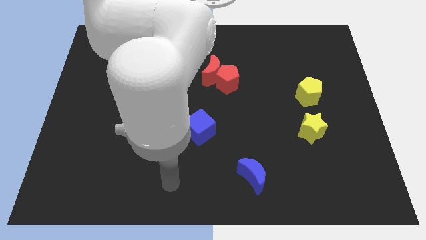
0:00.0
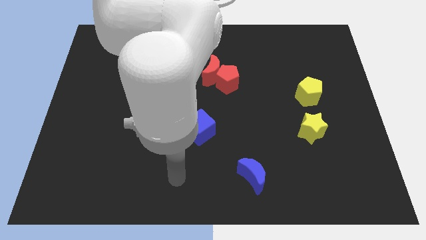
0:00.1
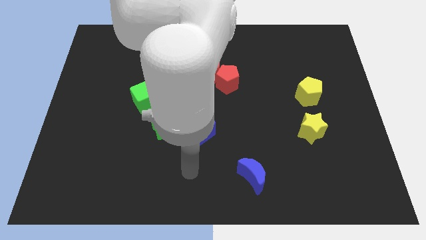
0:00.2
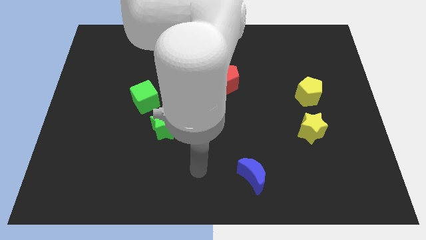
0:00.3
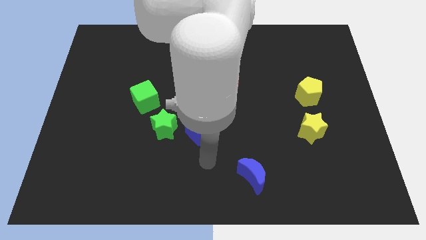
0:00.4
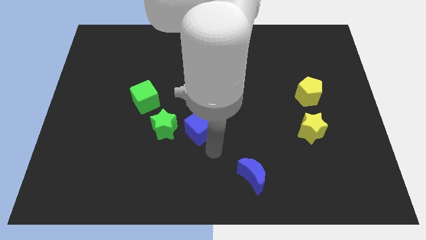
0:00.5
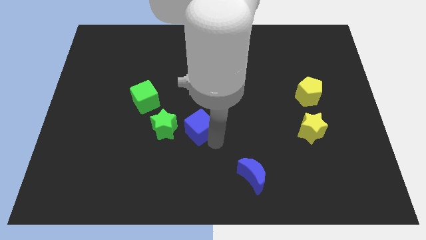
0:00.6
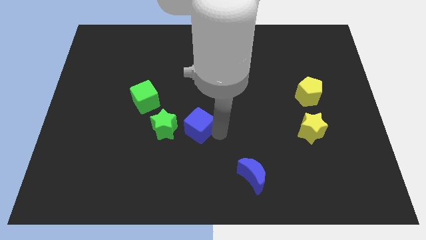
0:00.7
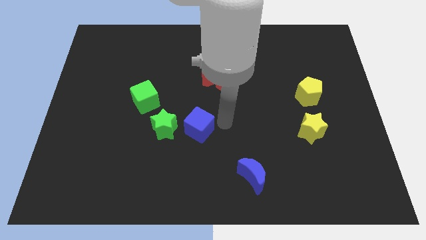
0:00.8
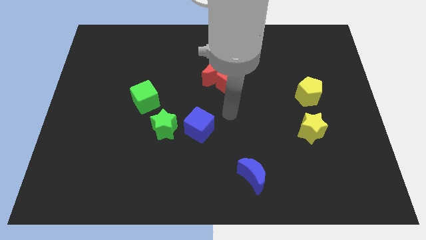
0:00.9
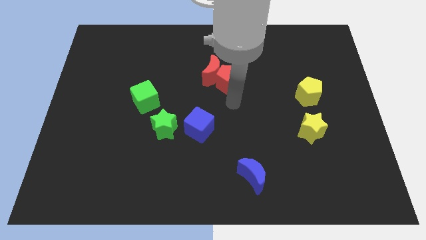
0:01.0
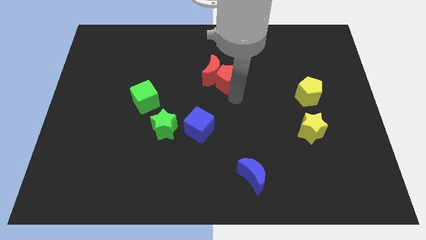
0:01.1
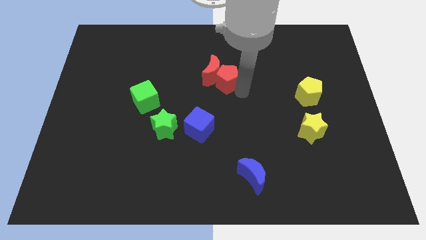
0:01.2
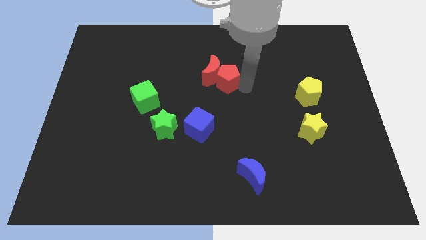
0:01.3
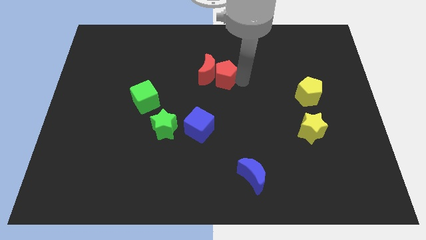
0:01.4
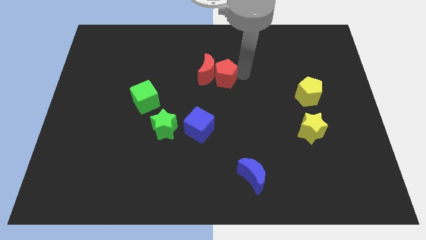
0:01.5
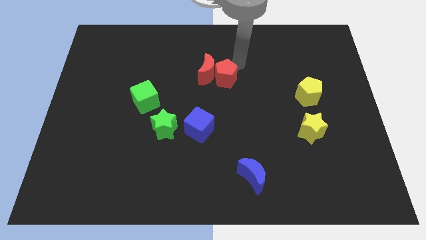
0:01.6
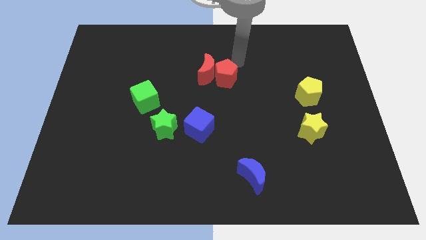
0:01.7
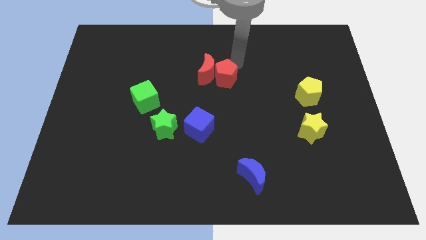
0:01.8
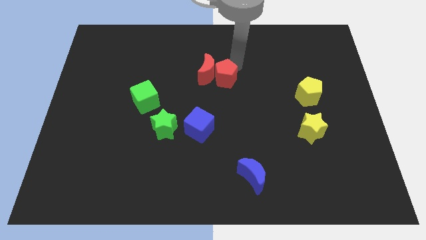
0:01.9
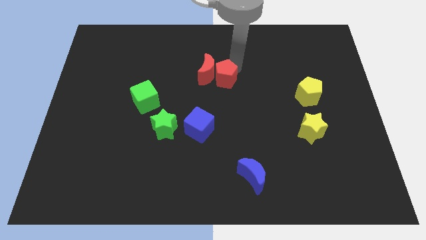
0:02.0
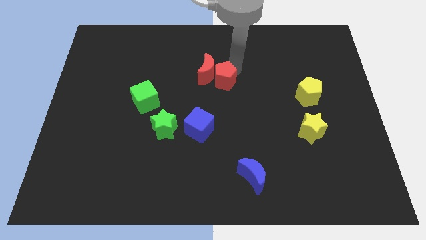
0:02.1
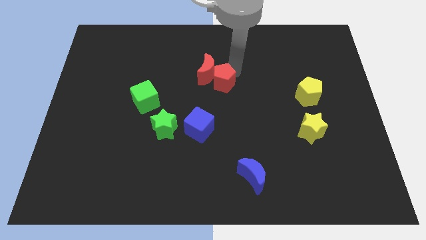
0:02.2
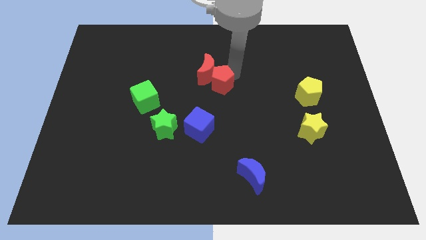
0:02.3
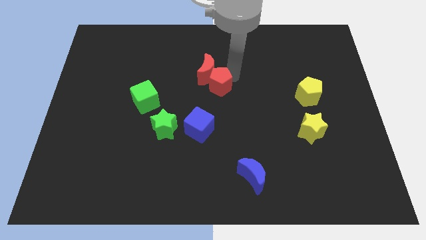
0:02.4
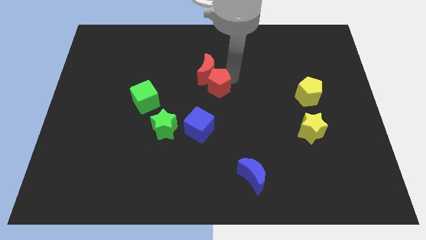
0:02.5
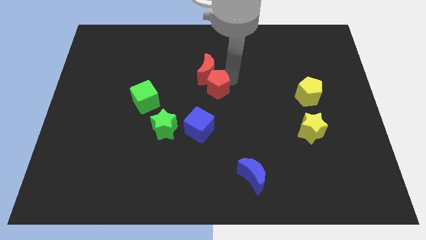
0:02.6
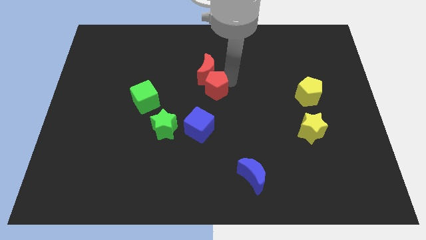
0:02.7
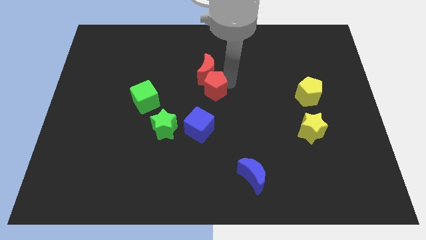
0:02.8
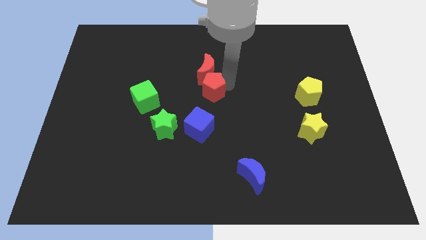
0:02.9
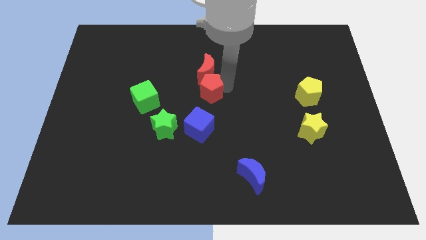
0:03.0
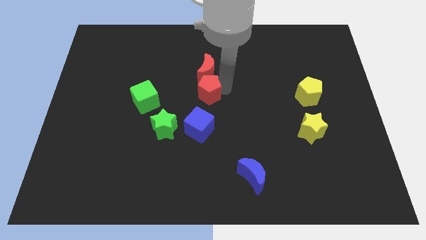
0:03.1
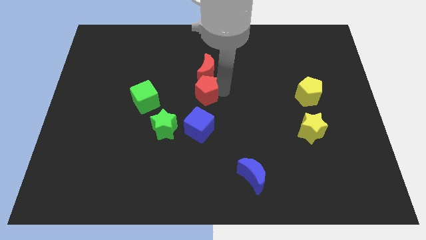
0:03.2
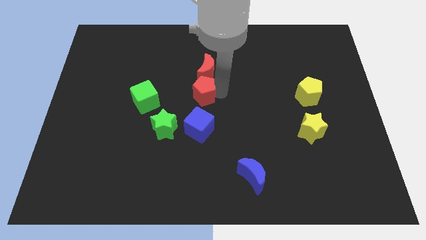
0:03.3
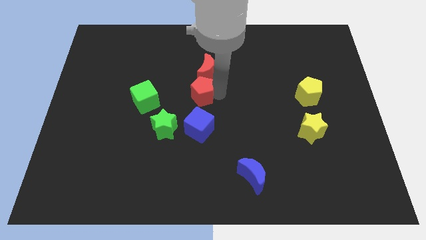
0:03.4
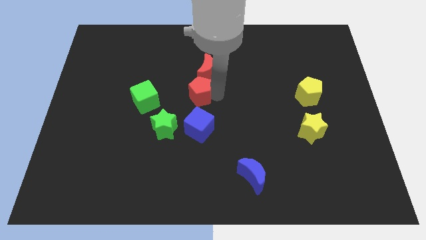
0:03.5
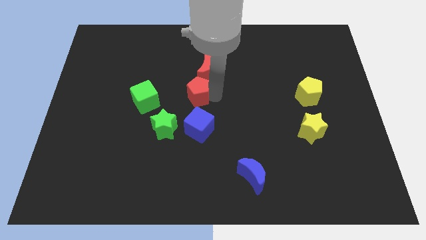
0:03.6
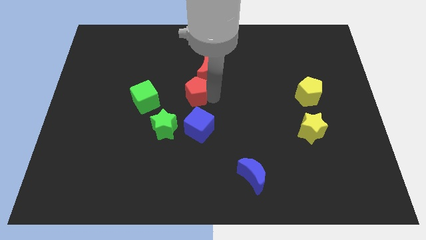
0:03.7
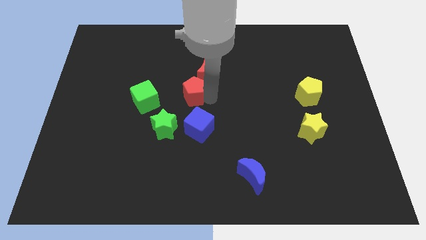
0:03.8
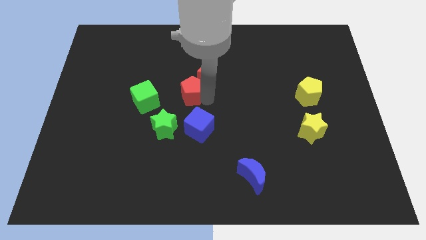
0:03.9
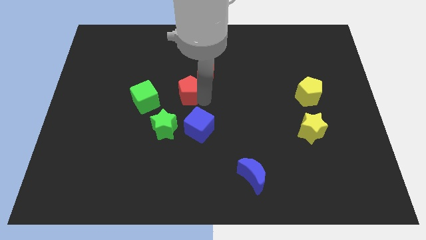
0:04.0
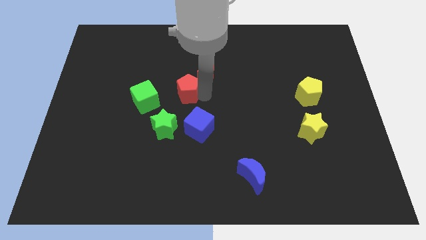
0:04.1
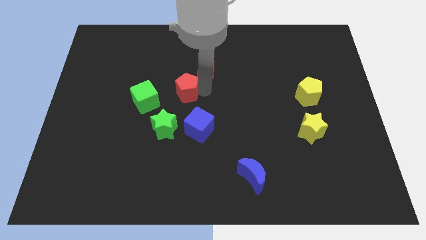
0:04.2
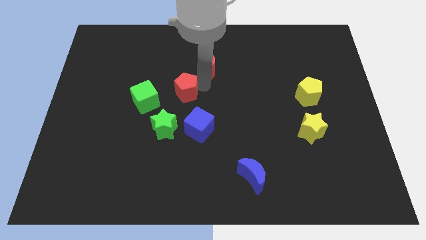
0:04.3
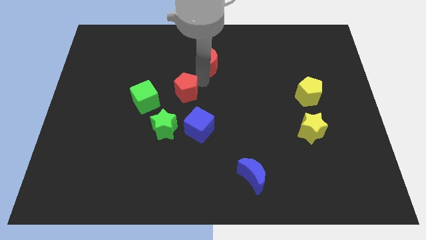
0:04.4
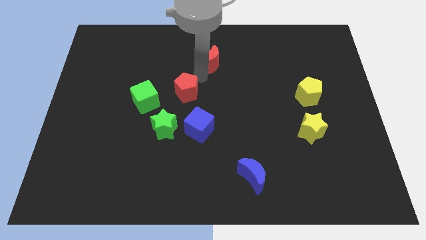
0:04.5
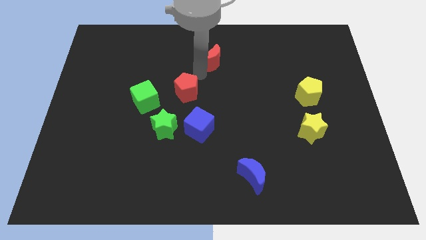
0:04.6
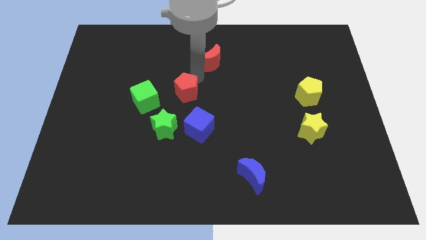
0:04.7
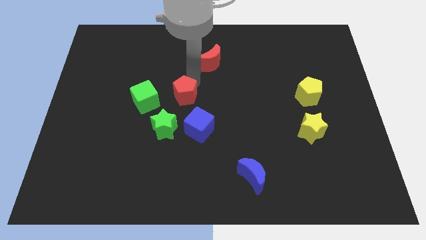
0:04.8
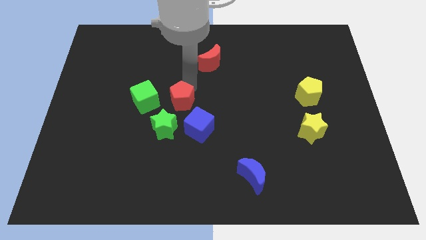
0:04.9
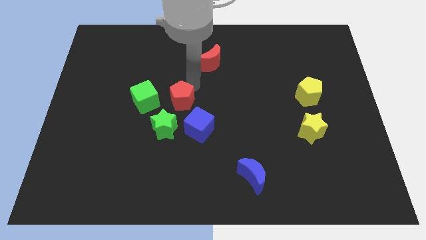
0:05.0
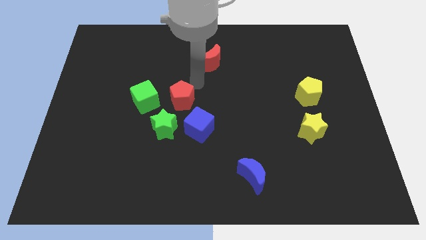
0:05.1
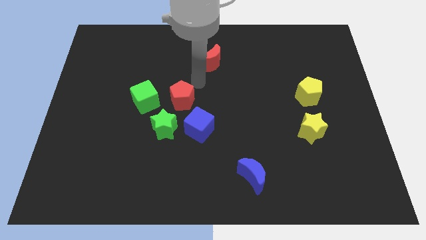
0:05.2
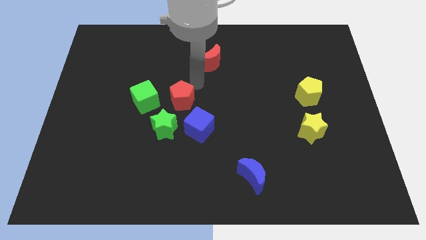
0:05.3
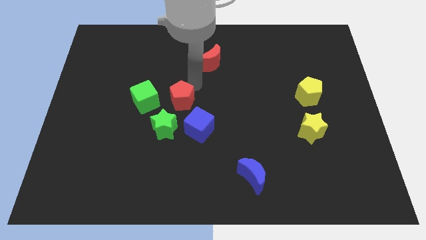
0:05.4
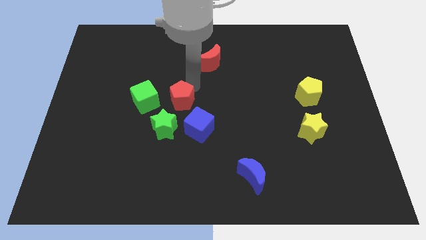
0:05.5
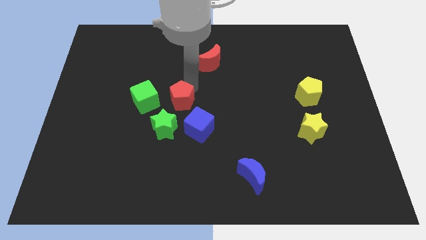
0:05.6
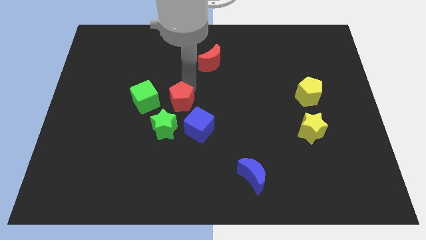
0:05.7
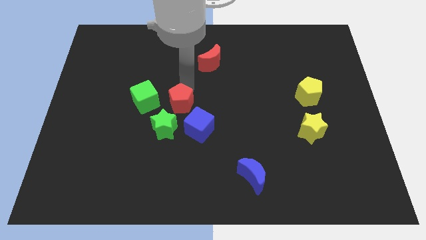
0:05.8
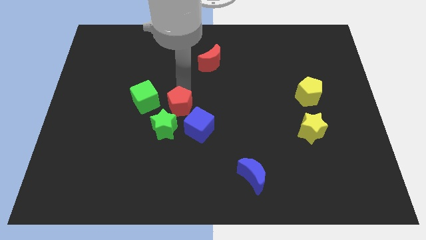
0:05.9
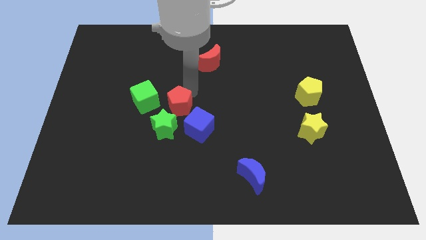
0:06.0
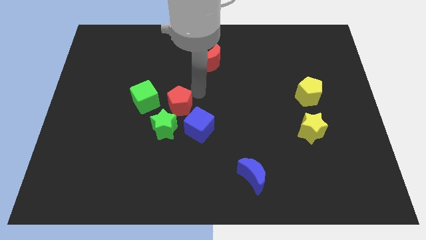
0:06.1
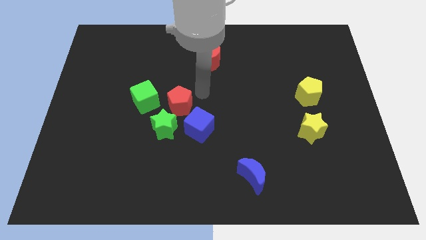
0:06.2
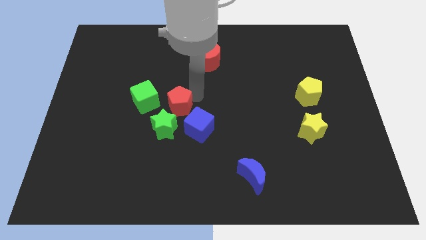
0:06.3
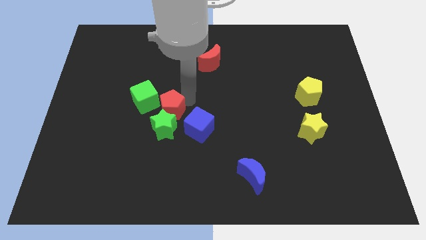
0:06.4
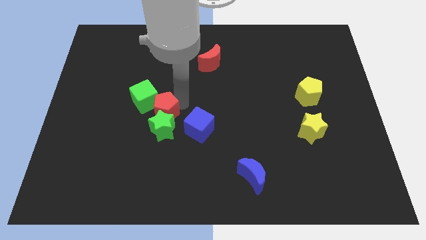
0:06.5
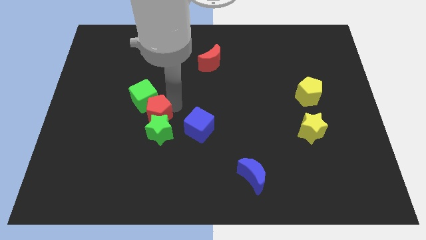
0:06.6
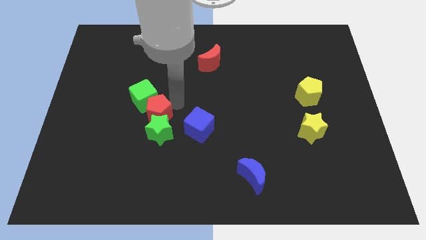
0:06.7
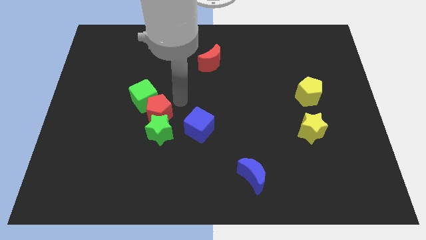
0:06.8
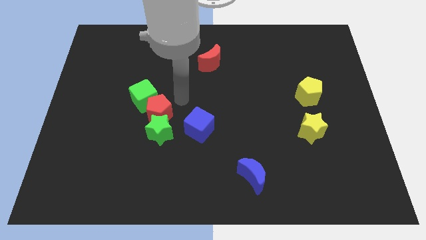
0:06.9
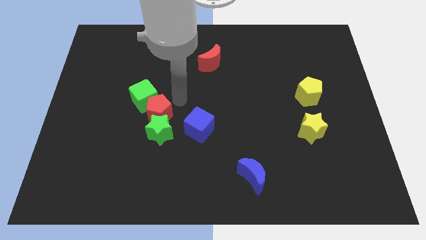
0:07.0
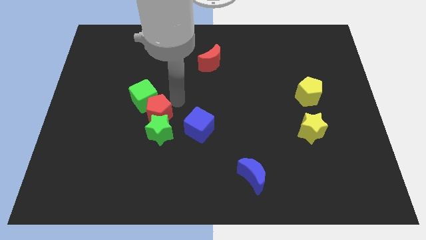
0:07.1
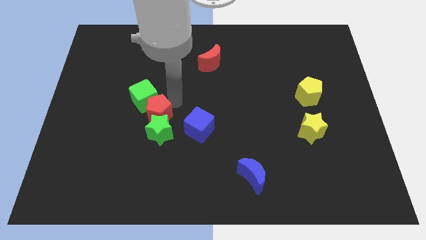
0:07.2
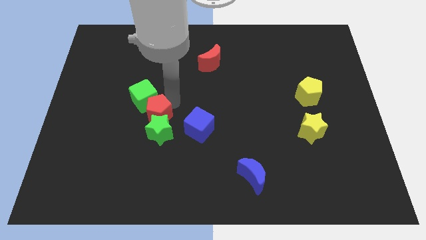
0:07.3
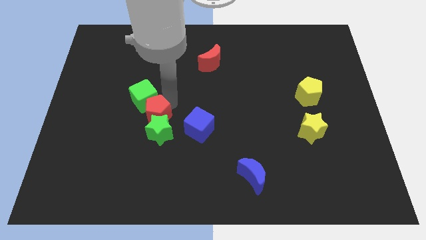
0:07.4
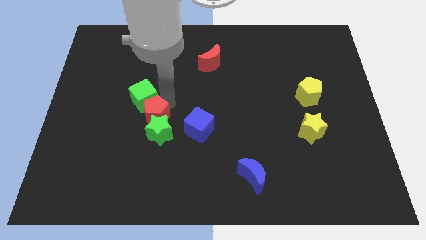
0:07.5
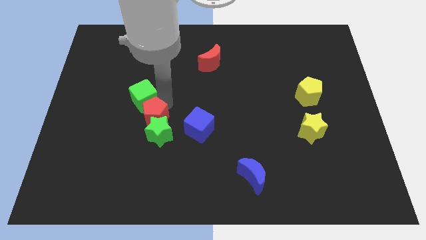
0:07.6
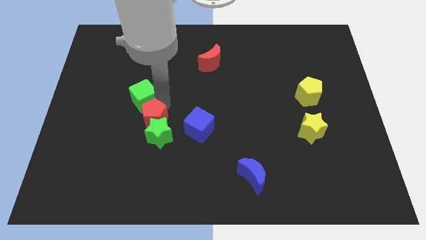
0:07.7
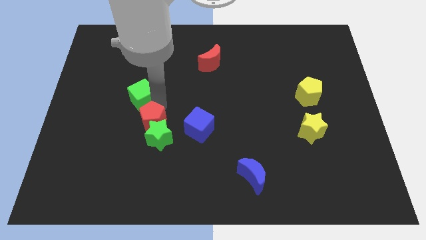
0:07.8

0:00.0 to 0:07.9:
move the red pentagon diagonally downwards and to the left
